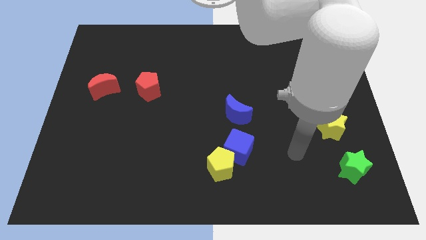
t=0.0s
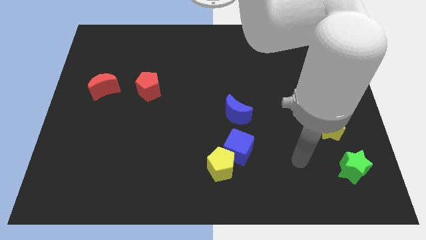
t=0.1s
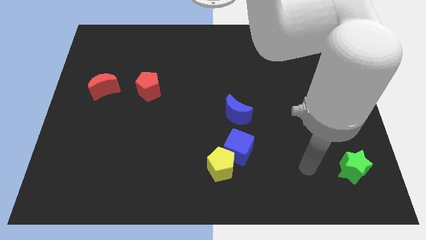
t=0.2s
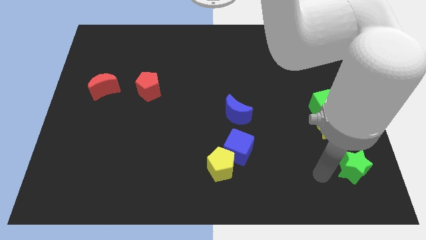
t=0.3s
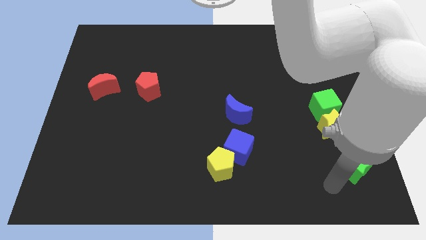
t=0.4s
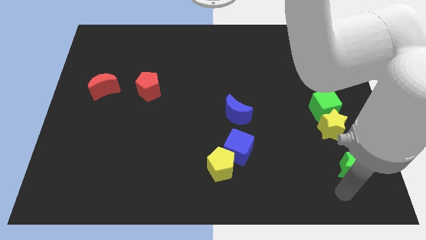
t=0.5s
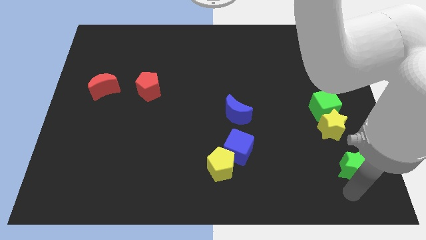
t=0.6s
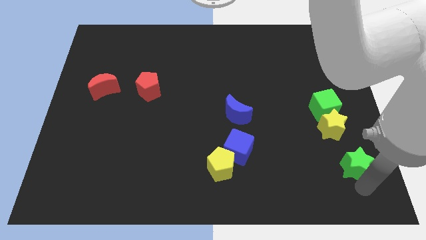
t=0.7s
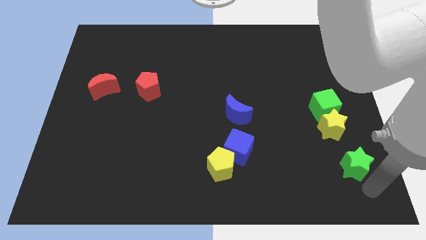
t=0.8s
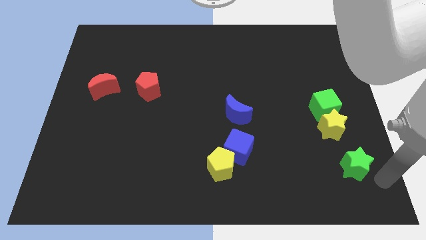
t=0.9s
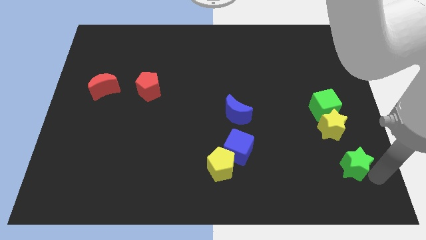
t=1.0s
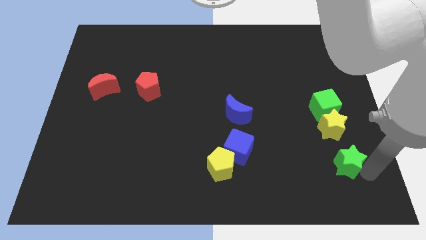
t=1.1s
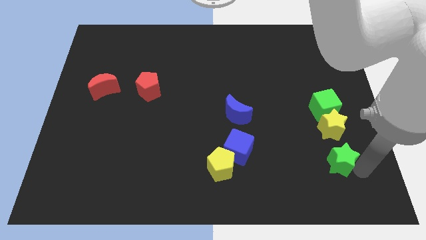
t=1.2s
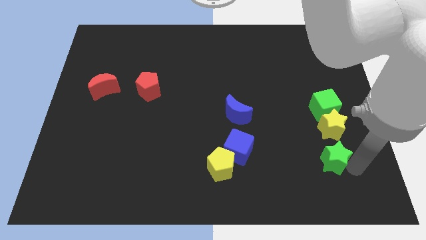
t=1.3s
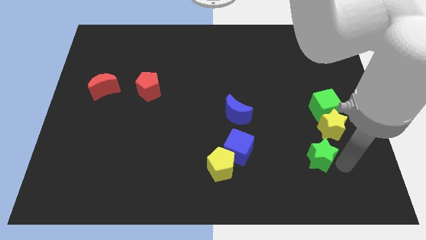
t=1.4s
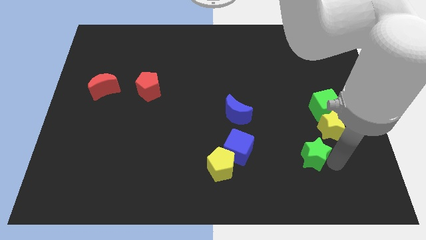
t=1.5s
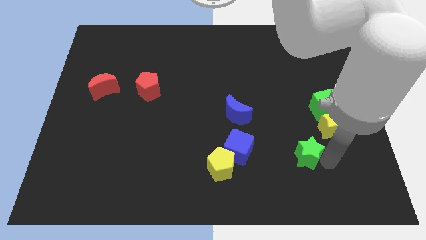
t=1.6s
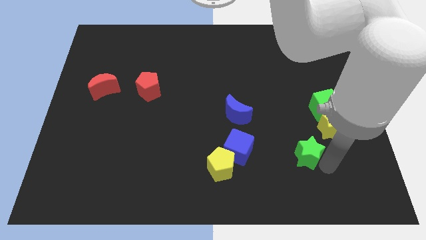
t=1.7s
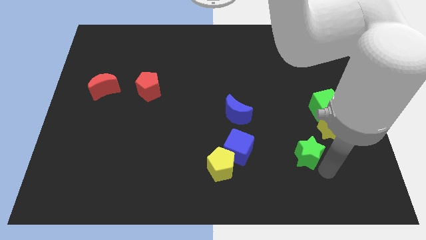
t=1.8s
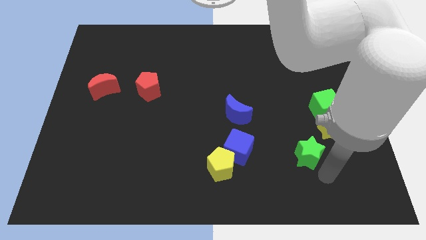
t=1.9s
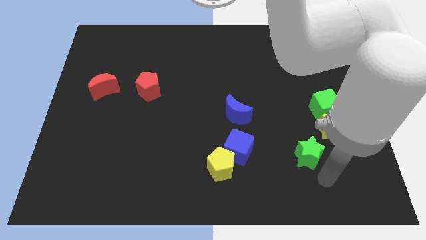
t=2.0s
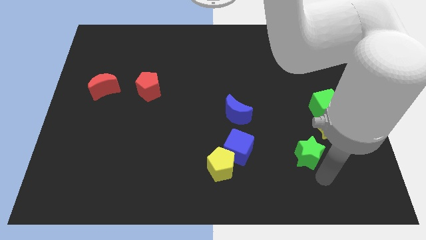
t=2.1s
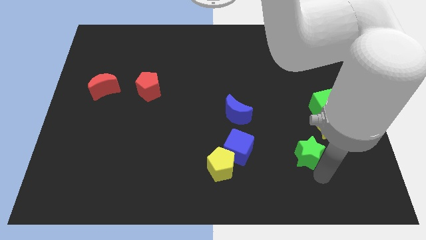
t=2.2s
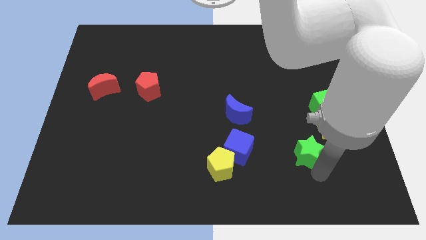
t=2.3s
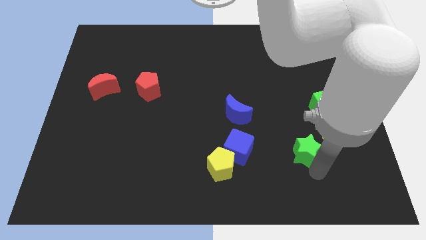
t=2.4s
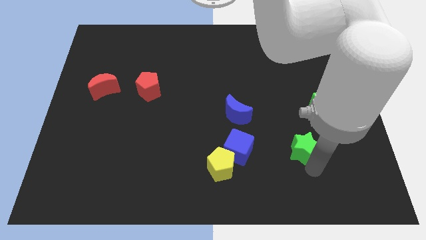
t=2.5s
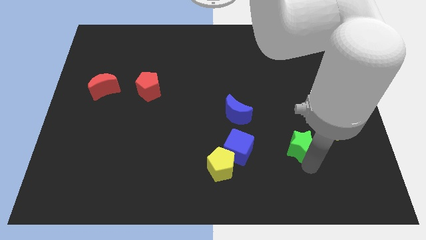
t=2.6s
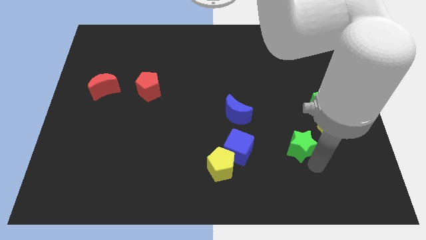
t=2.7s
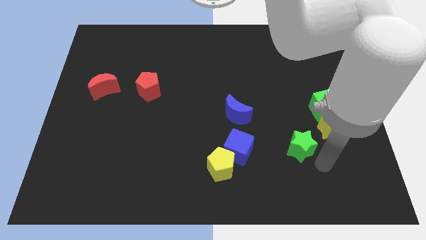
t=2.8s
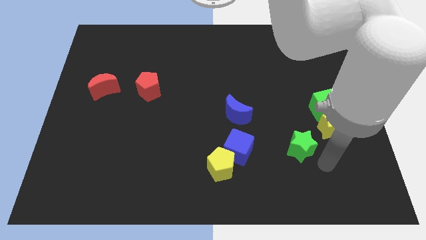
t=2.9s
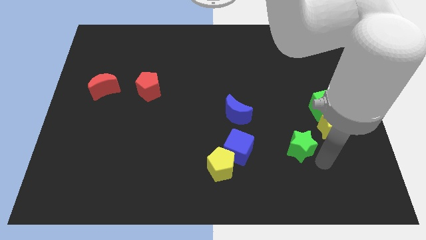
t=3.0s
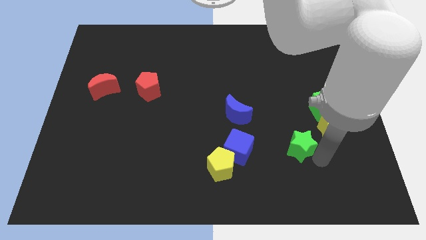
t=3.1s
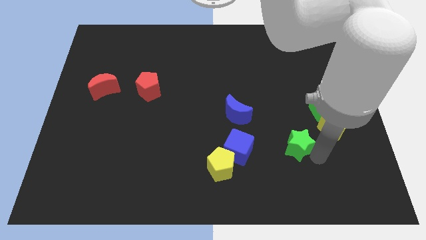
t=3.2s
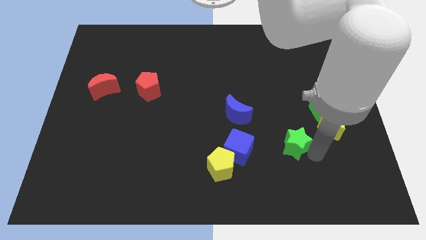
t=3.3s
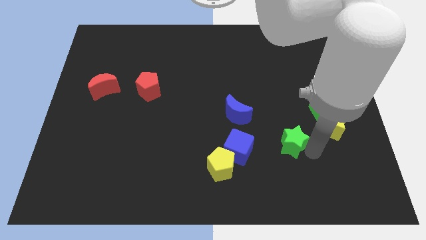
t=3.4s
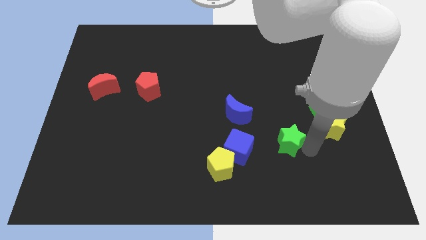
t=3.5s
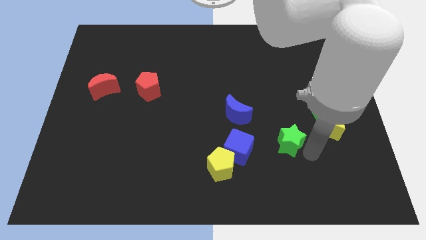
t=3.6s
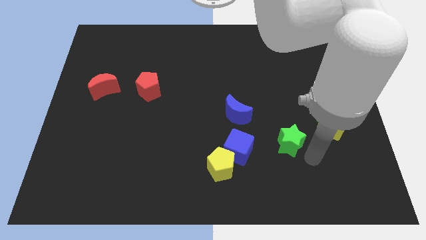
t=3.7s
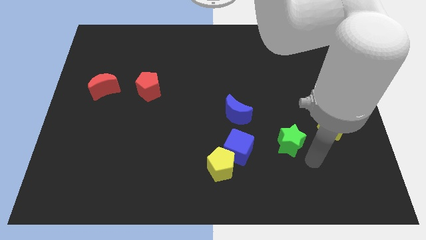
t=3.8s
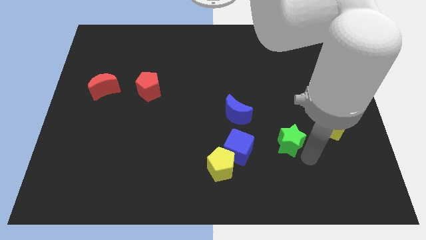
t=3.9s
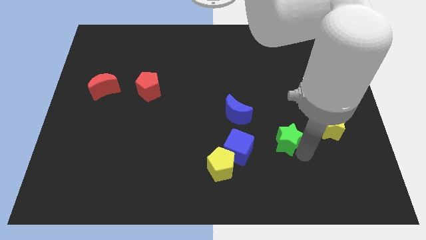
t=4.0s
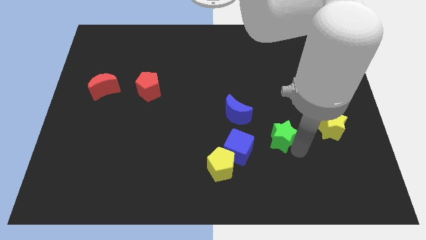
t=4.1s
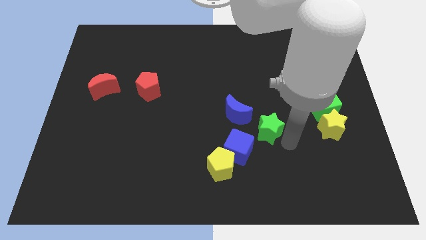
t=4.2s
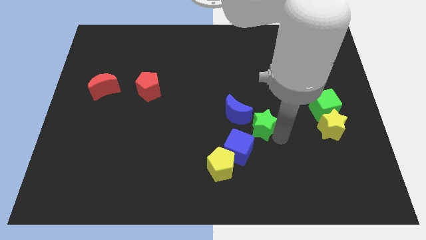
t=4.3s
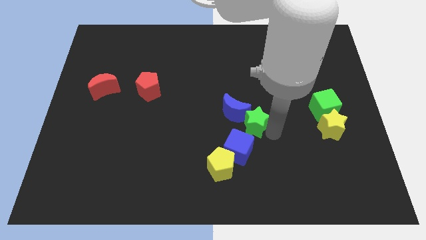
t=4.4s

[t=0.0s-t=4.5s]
push the green star to the blue moon

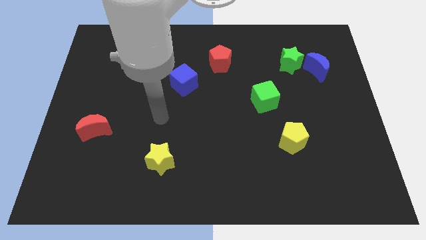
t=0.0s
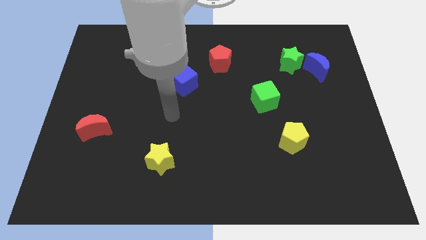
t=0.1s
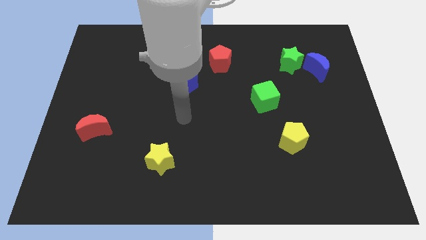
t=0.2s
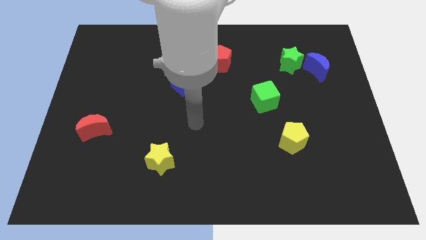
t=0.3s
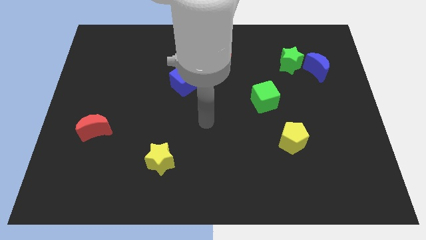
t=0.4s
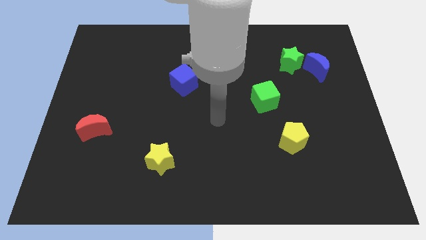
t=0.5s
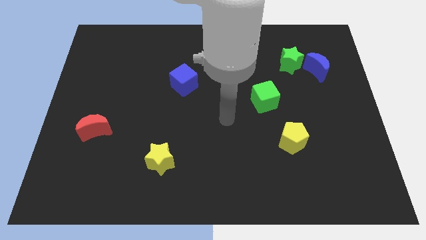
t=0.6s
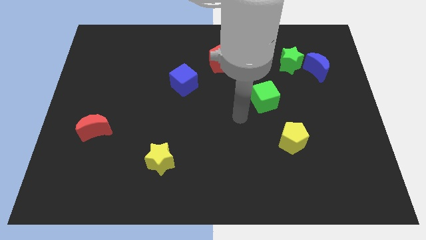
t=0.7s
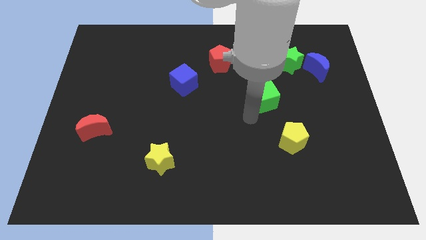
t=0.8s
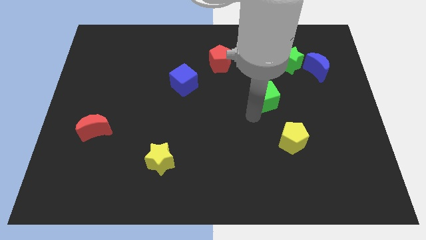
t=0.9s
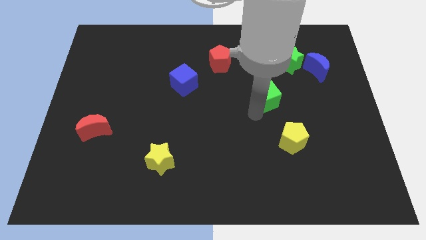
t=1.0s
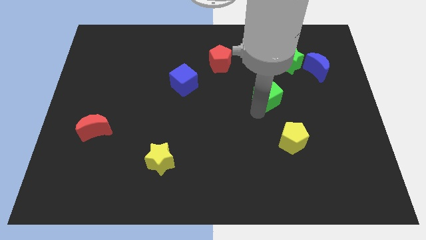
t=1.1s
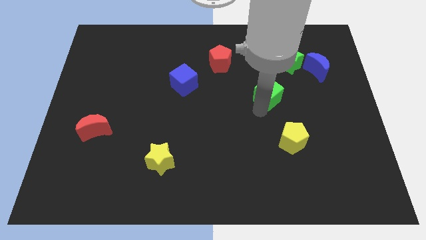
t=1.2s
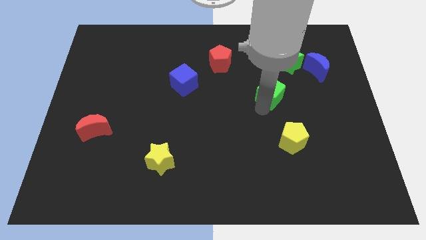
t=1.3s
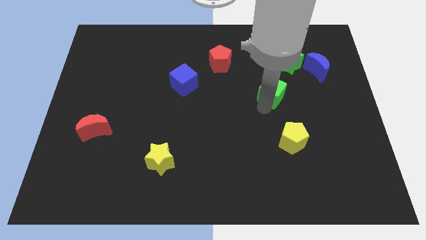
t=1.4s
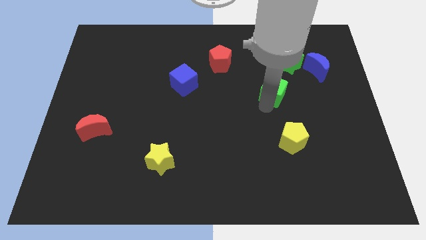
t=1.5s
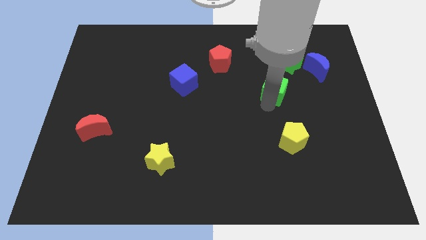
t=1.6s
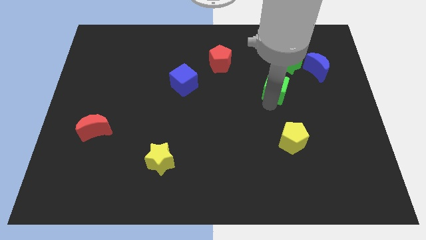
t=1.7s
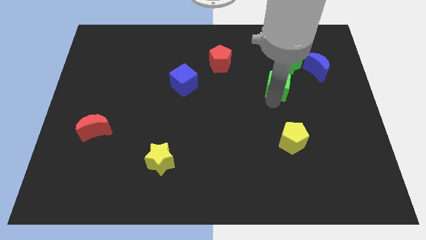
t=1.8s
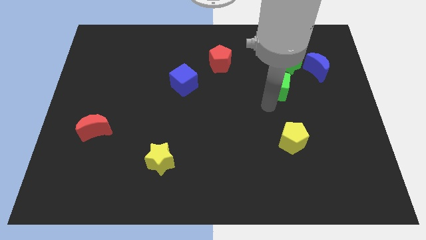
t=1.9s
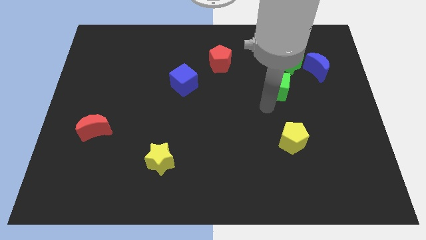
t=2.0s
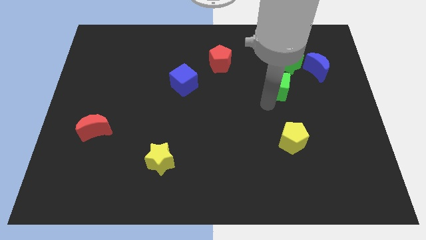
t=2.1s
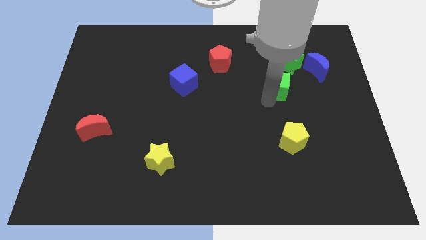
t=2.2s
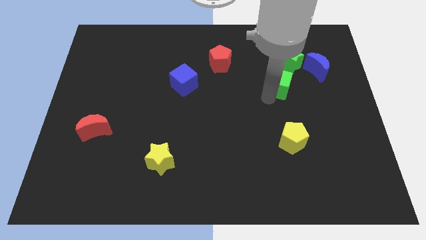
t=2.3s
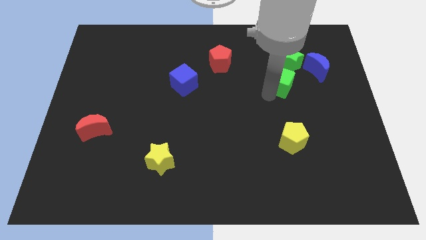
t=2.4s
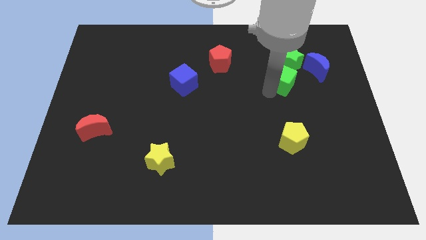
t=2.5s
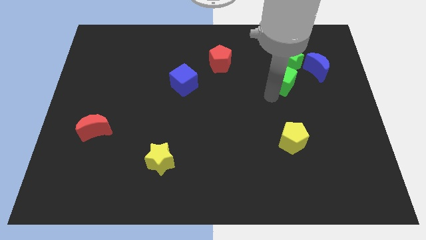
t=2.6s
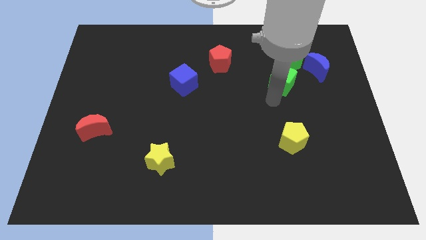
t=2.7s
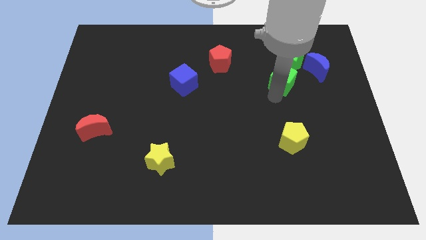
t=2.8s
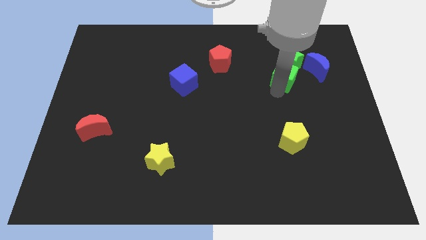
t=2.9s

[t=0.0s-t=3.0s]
slide the green cube to the green star
